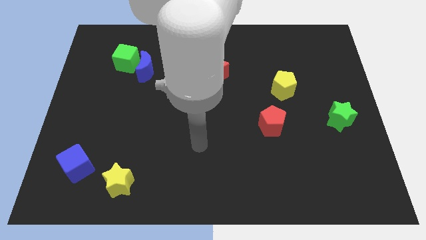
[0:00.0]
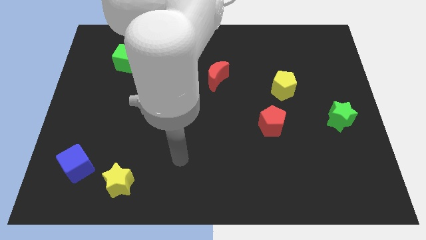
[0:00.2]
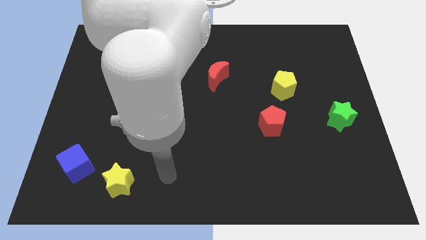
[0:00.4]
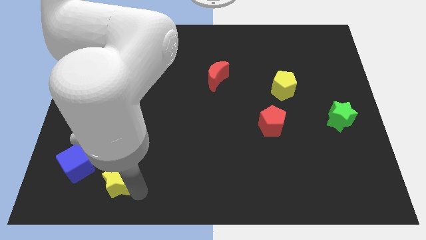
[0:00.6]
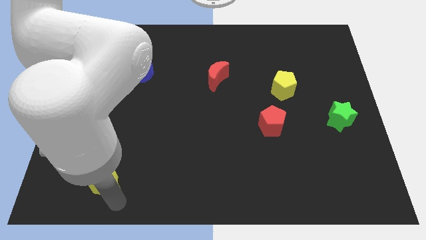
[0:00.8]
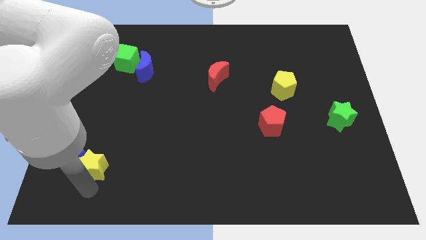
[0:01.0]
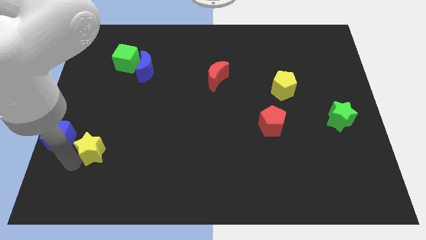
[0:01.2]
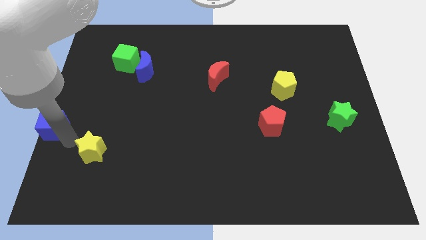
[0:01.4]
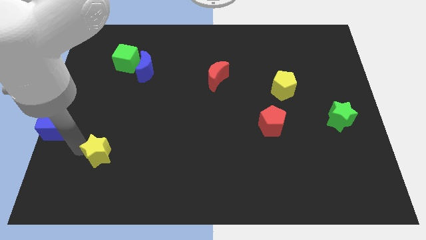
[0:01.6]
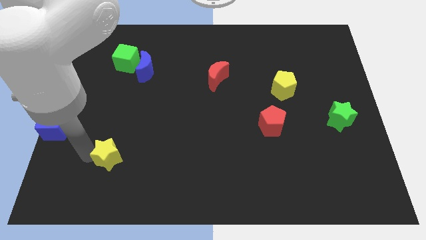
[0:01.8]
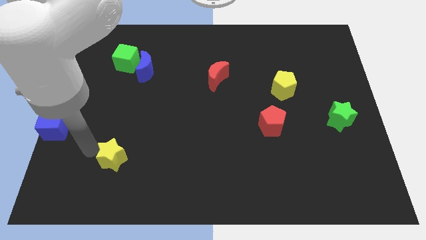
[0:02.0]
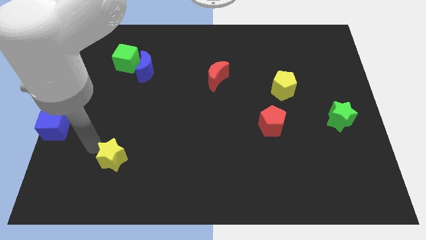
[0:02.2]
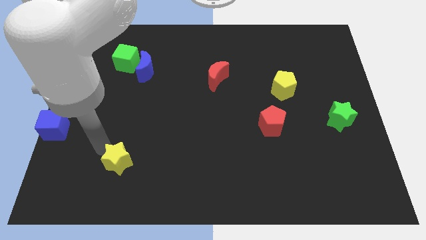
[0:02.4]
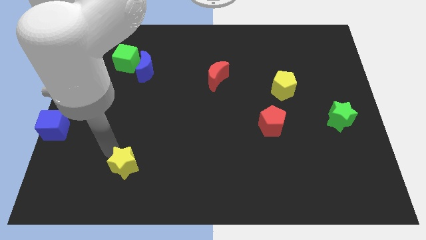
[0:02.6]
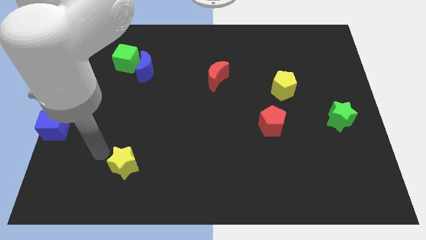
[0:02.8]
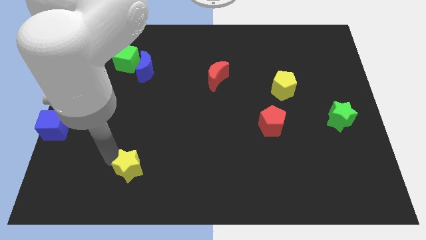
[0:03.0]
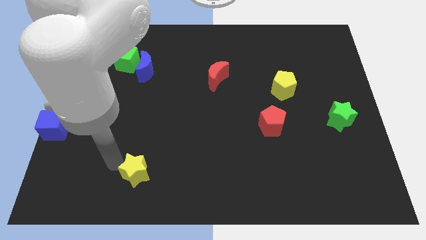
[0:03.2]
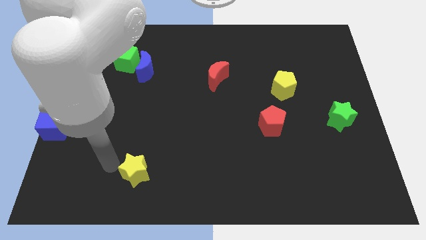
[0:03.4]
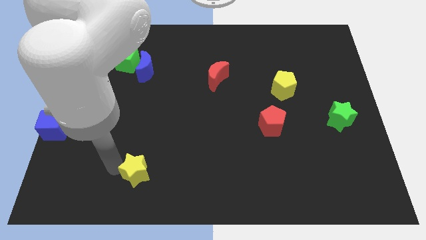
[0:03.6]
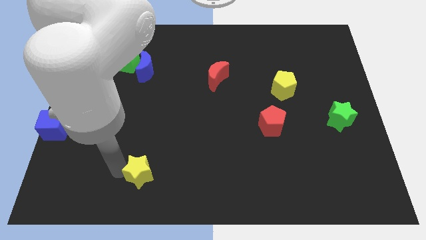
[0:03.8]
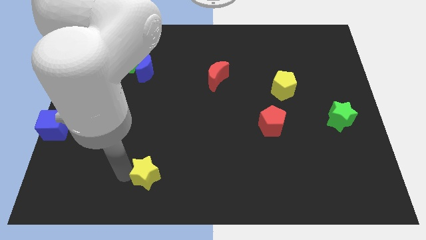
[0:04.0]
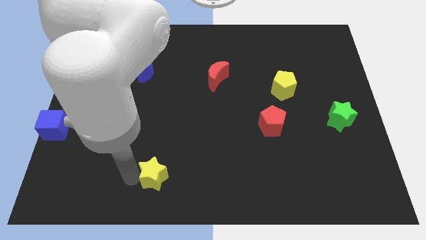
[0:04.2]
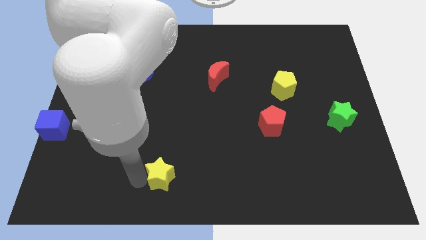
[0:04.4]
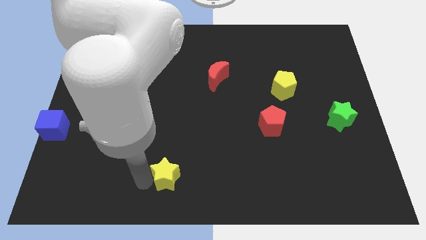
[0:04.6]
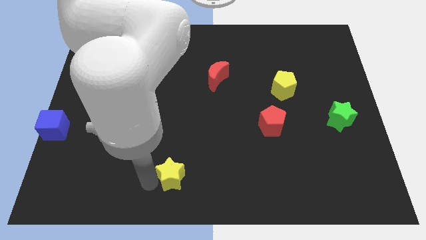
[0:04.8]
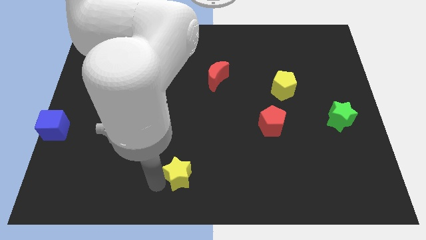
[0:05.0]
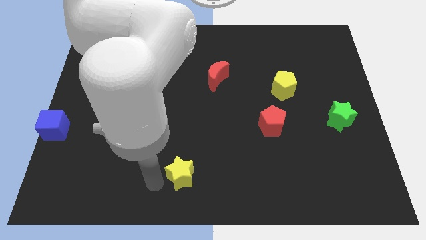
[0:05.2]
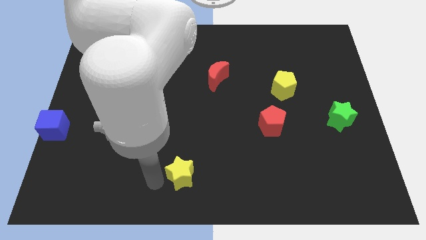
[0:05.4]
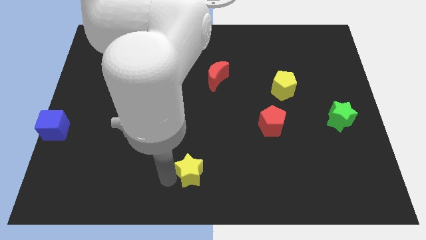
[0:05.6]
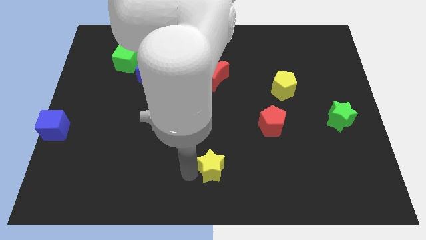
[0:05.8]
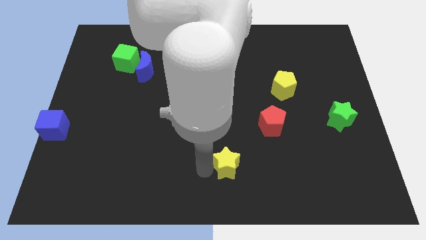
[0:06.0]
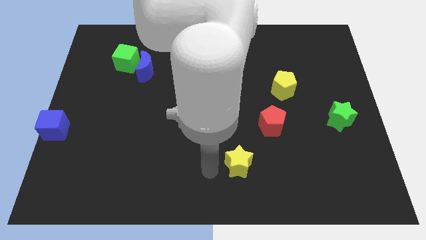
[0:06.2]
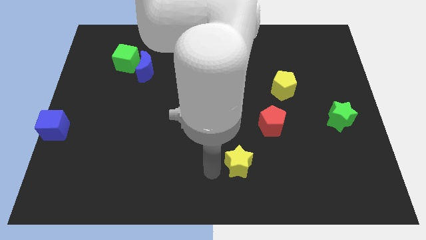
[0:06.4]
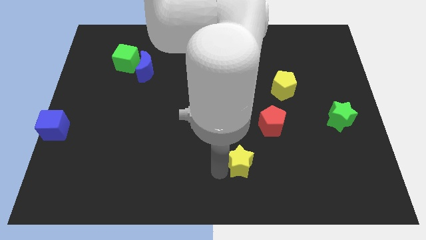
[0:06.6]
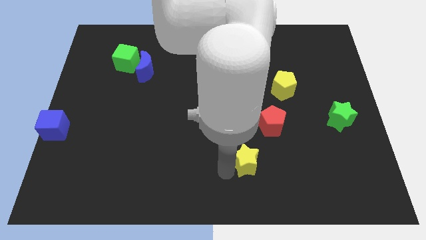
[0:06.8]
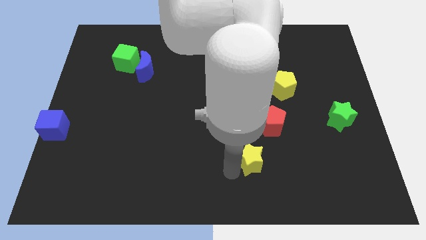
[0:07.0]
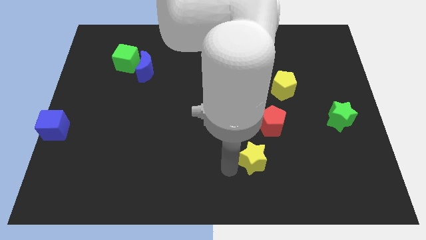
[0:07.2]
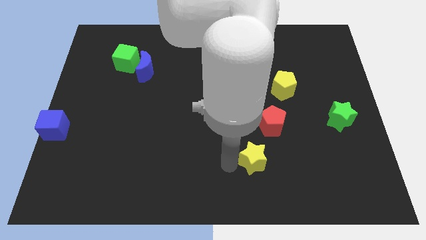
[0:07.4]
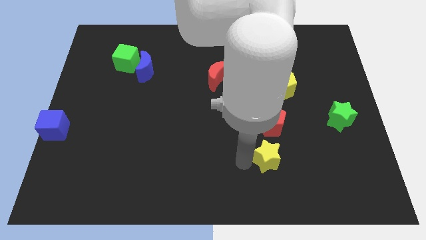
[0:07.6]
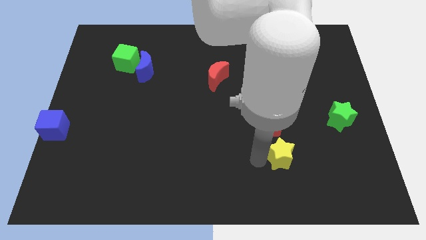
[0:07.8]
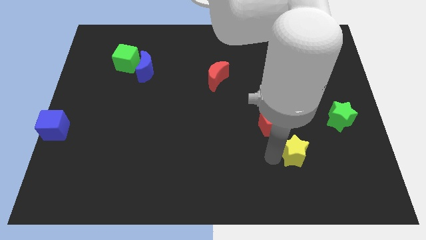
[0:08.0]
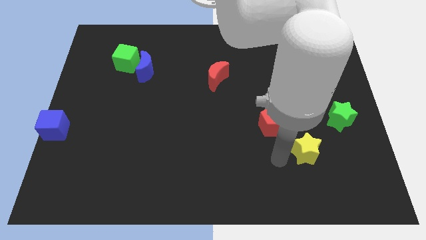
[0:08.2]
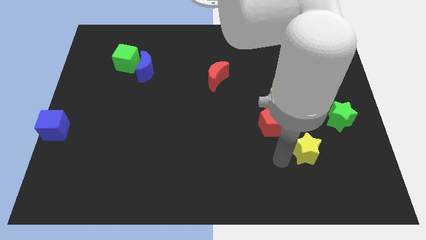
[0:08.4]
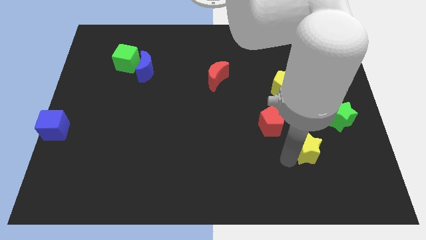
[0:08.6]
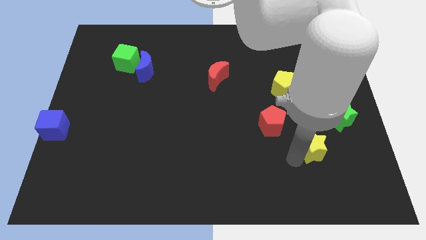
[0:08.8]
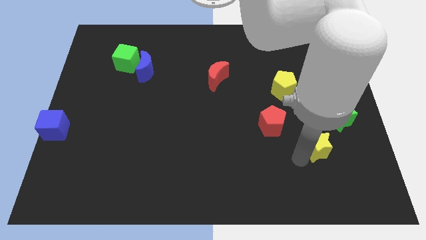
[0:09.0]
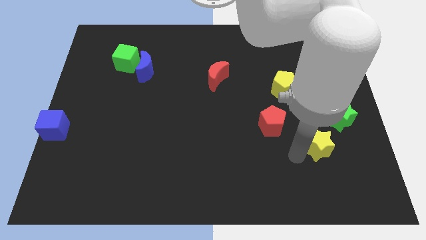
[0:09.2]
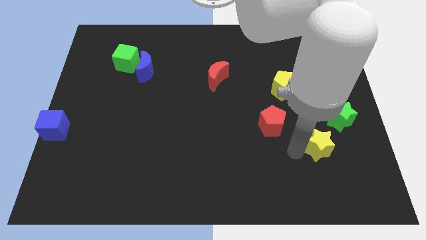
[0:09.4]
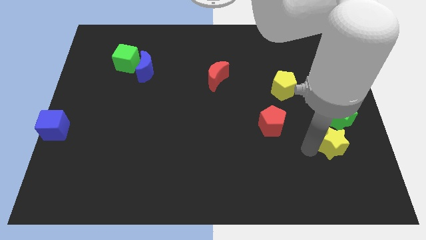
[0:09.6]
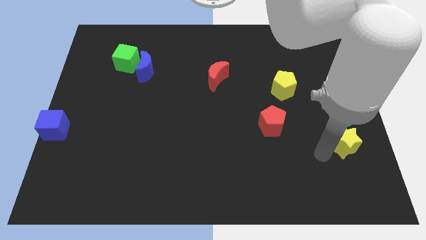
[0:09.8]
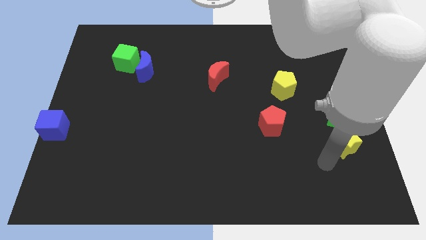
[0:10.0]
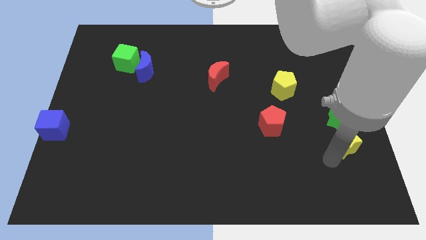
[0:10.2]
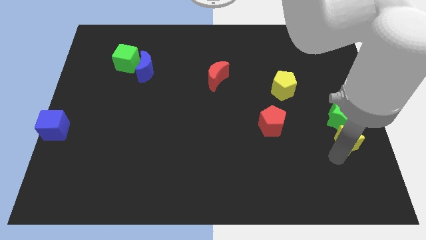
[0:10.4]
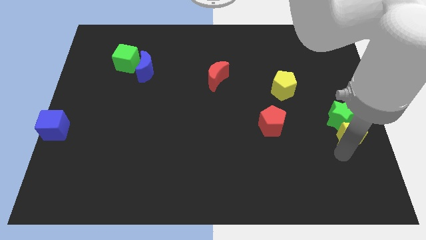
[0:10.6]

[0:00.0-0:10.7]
put the yellow star to the right side of the board
